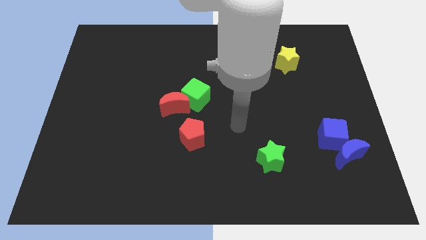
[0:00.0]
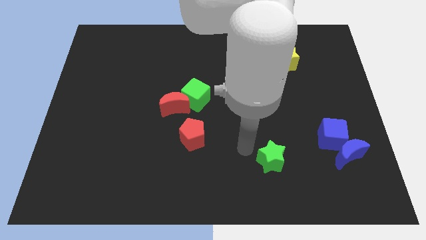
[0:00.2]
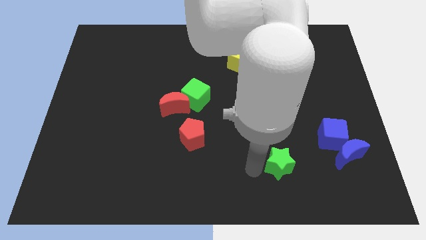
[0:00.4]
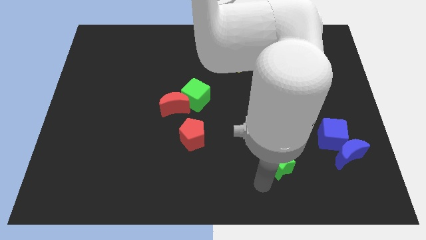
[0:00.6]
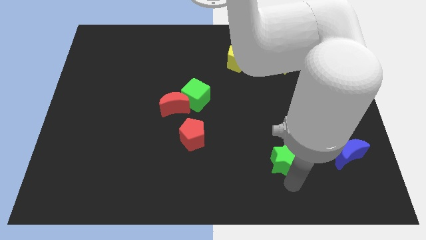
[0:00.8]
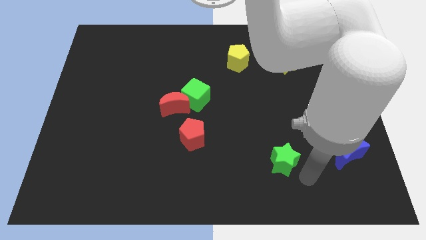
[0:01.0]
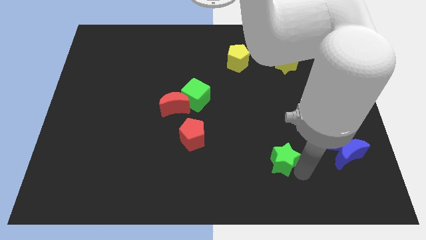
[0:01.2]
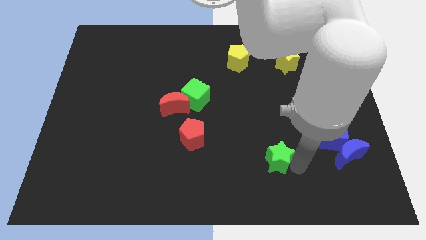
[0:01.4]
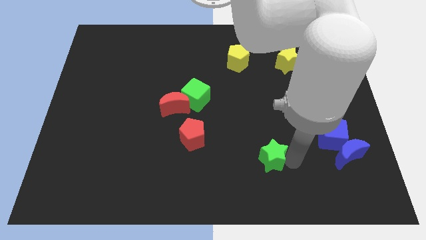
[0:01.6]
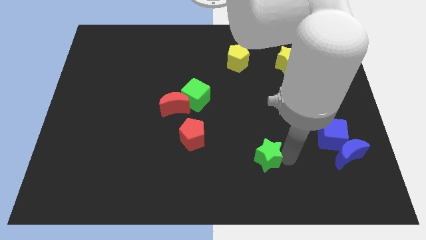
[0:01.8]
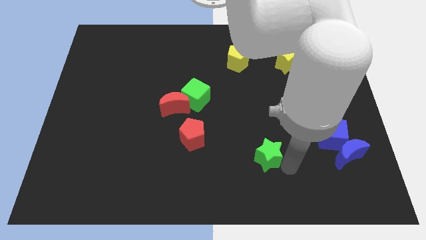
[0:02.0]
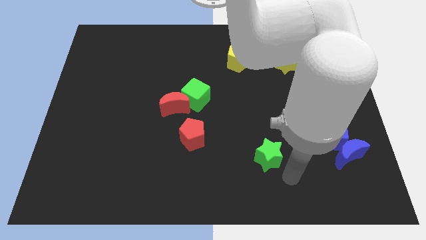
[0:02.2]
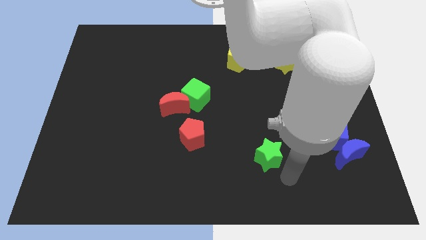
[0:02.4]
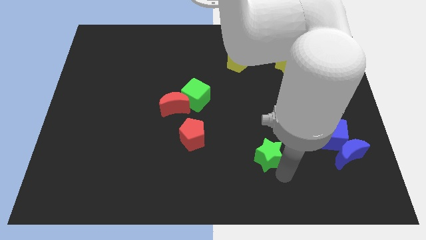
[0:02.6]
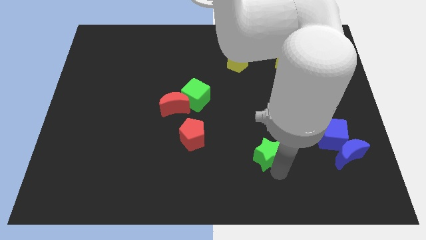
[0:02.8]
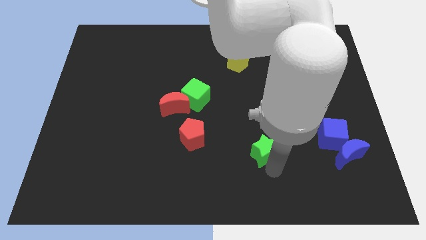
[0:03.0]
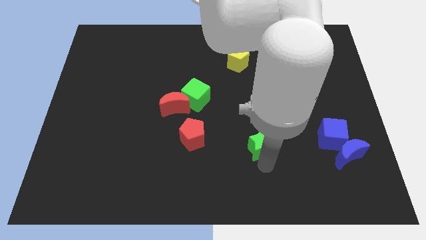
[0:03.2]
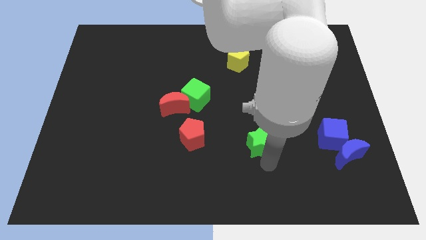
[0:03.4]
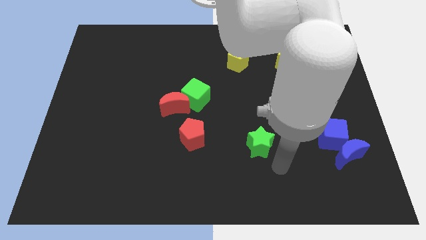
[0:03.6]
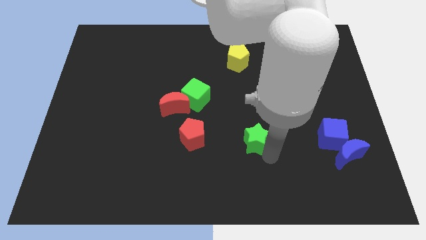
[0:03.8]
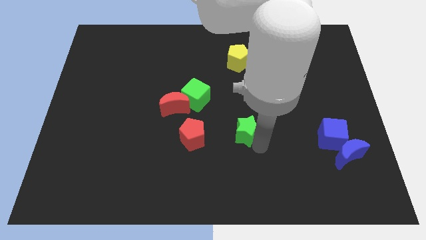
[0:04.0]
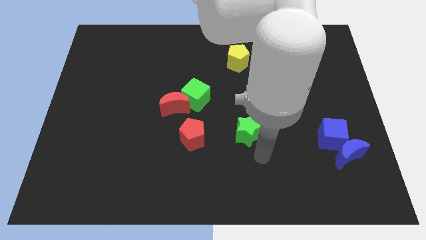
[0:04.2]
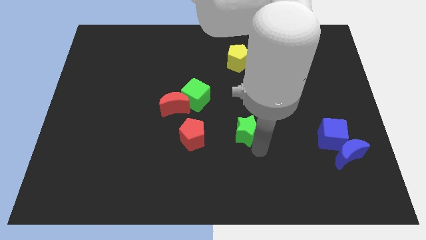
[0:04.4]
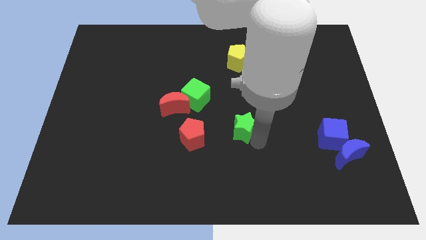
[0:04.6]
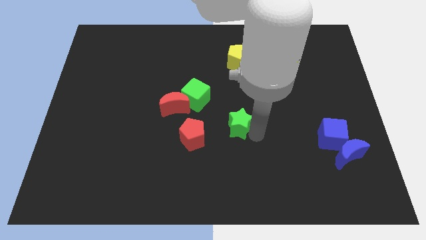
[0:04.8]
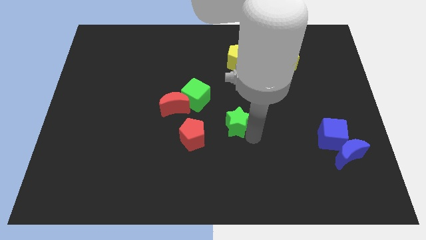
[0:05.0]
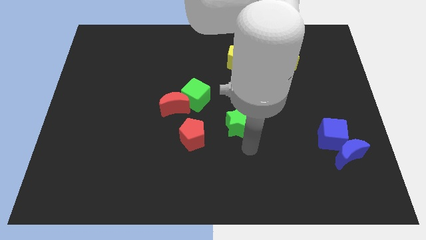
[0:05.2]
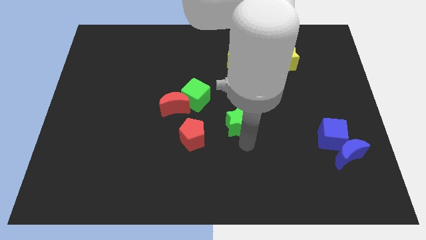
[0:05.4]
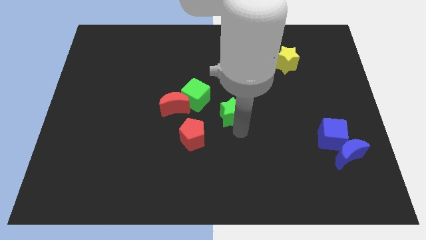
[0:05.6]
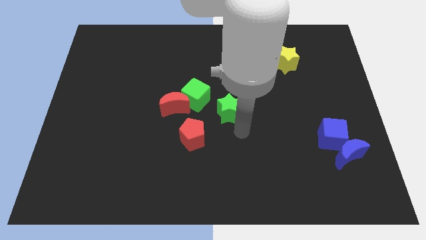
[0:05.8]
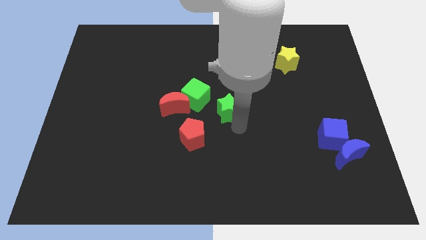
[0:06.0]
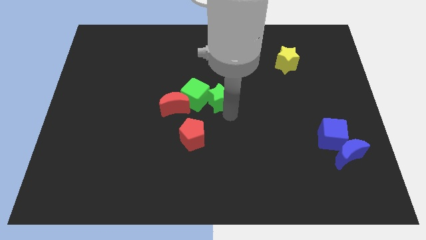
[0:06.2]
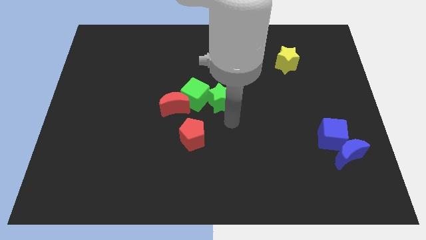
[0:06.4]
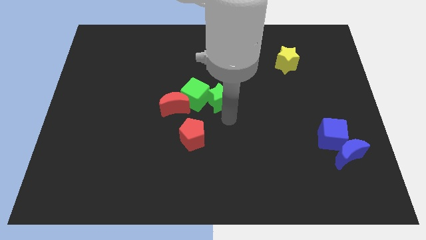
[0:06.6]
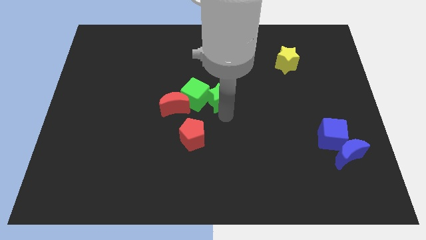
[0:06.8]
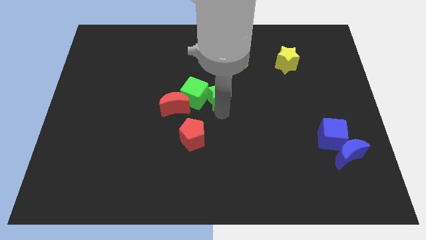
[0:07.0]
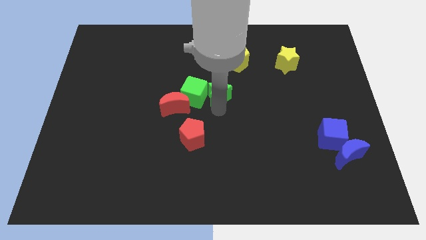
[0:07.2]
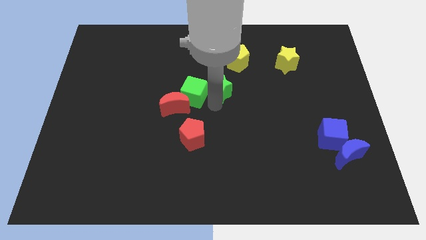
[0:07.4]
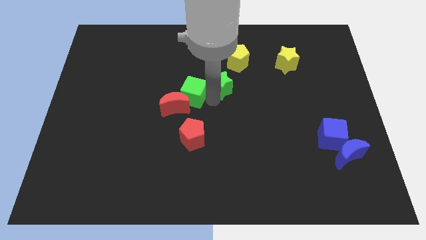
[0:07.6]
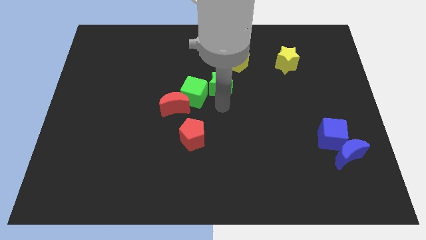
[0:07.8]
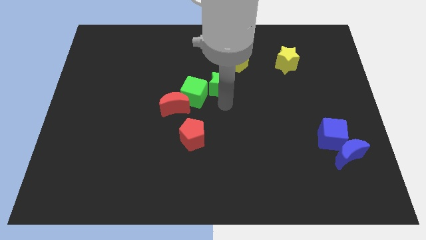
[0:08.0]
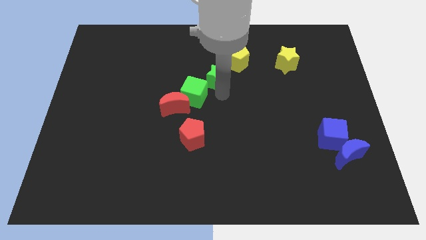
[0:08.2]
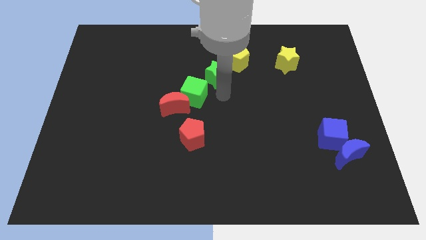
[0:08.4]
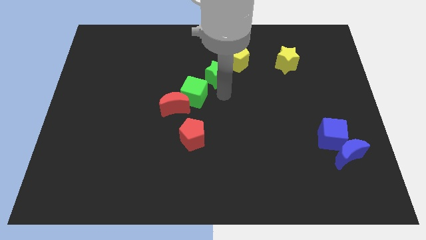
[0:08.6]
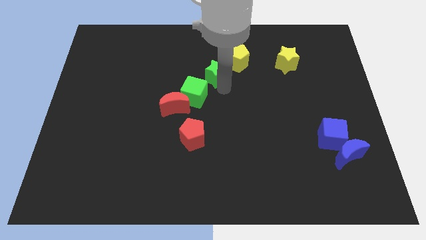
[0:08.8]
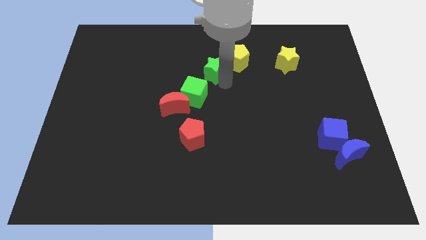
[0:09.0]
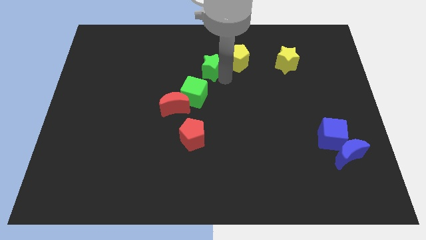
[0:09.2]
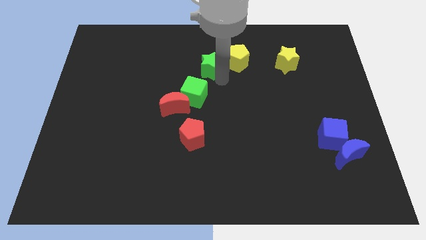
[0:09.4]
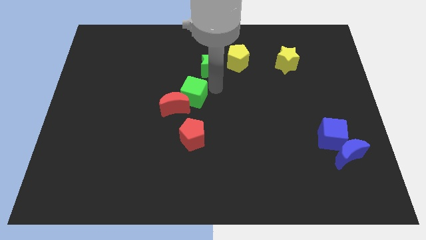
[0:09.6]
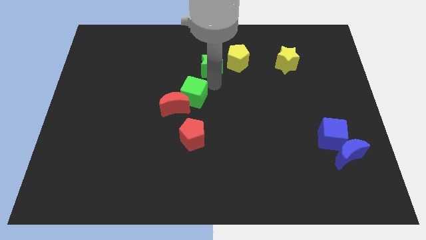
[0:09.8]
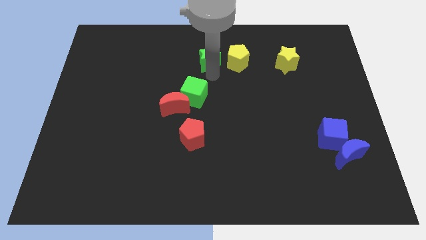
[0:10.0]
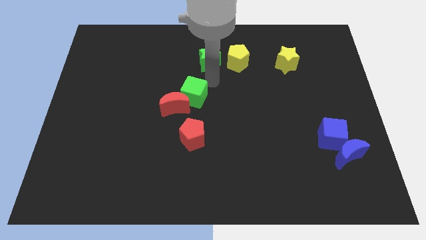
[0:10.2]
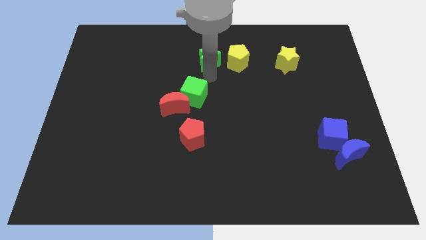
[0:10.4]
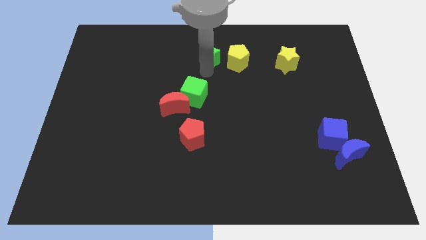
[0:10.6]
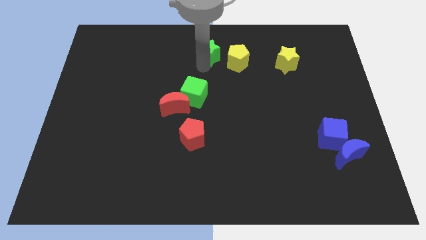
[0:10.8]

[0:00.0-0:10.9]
slide the green star to the top side
